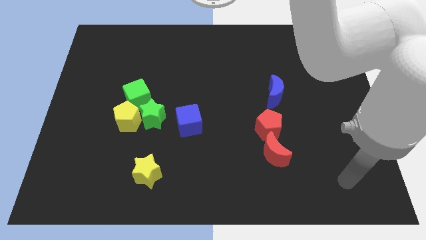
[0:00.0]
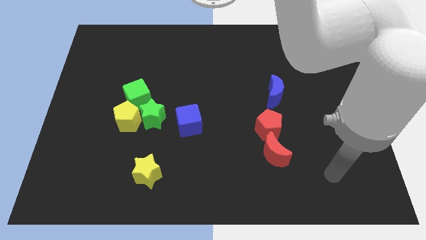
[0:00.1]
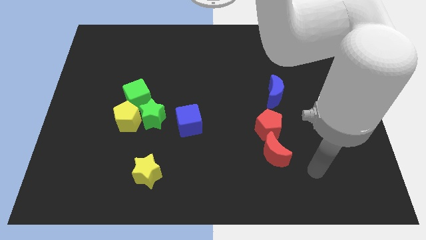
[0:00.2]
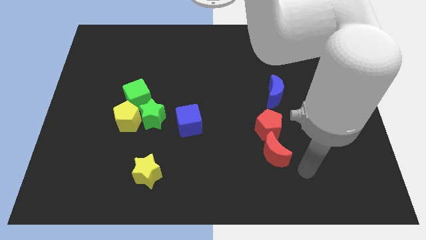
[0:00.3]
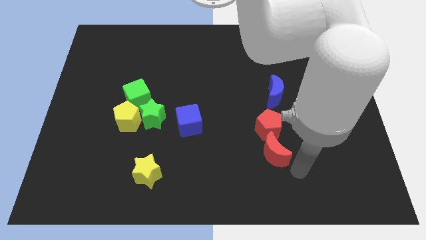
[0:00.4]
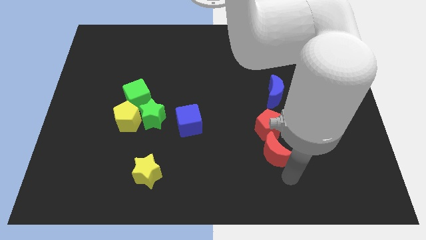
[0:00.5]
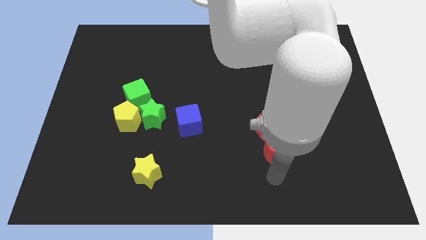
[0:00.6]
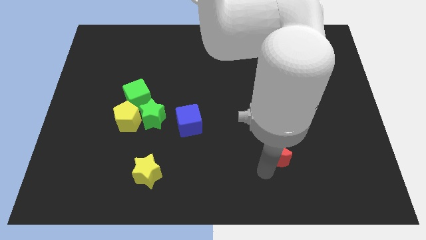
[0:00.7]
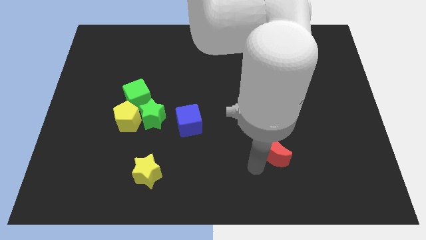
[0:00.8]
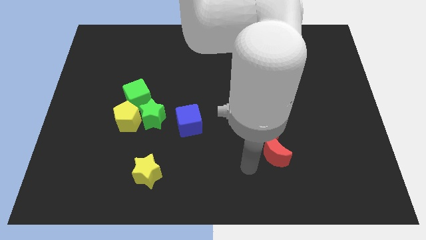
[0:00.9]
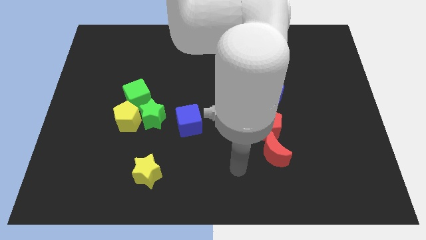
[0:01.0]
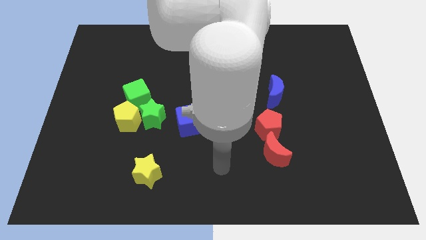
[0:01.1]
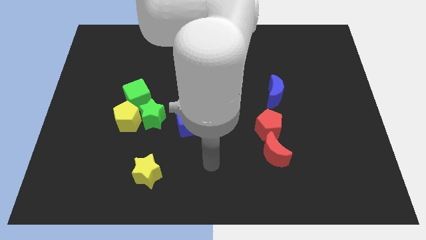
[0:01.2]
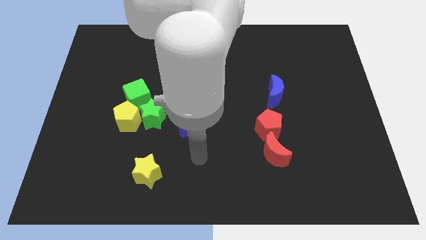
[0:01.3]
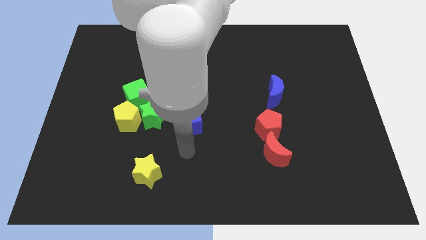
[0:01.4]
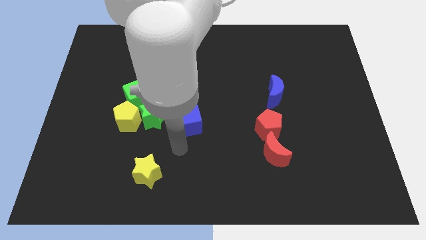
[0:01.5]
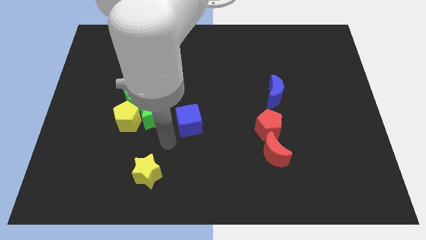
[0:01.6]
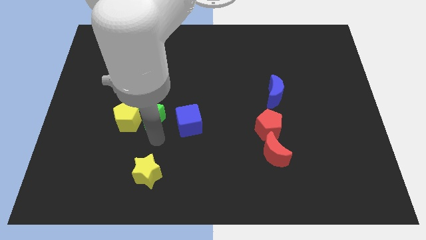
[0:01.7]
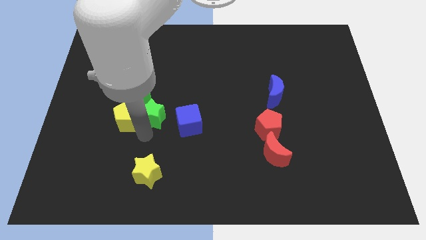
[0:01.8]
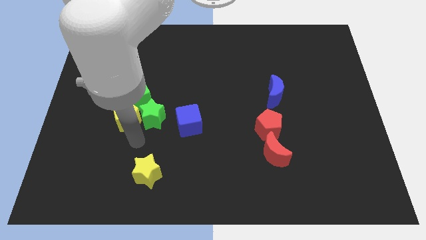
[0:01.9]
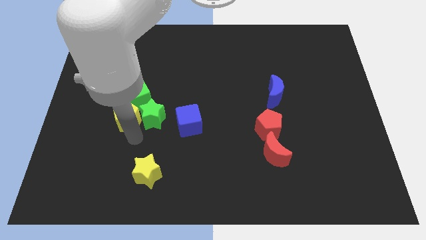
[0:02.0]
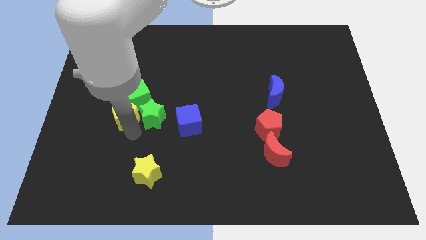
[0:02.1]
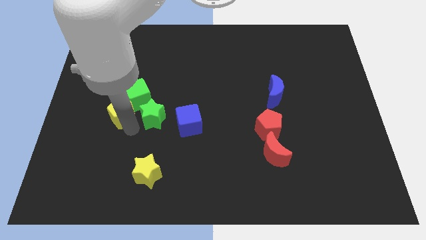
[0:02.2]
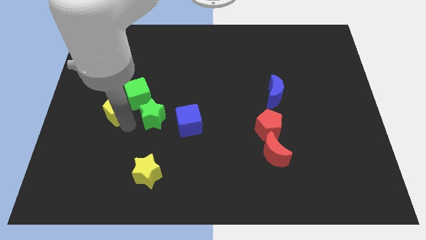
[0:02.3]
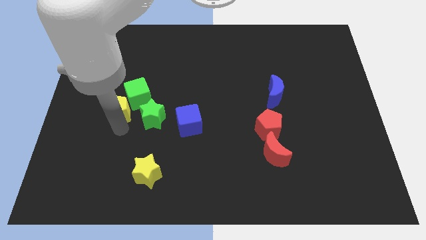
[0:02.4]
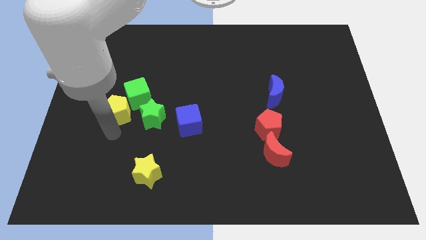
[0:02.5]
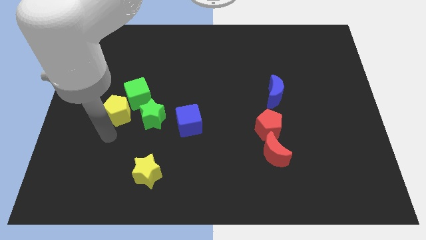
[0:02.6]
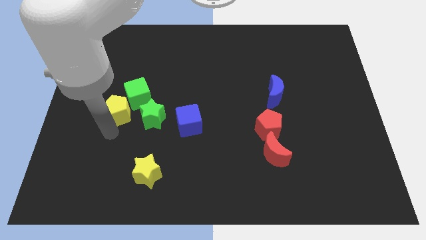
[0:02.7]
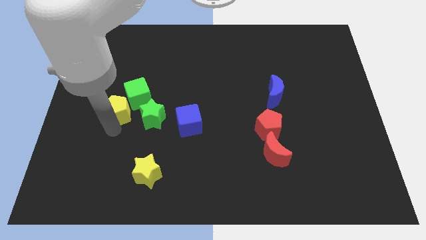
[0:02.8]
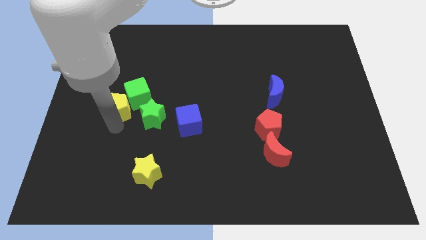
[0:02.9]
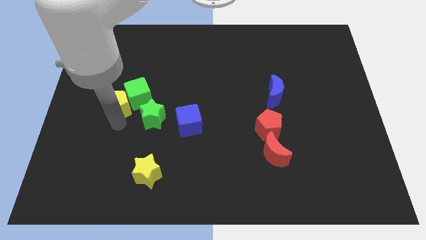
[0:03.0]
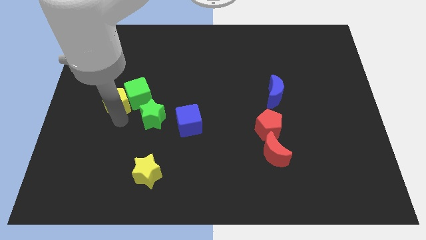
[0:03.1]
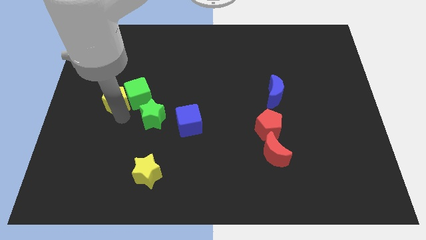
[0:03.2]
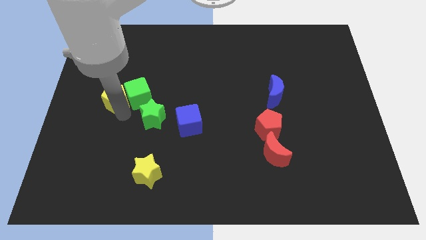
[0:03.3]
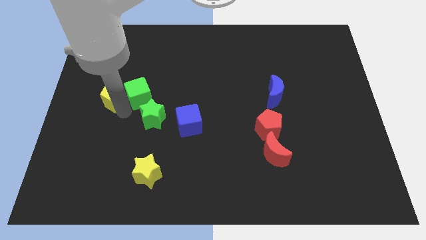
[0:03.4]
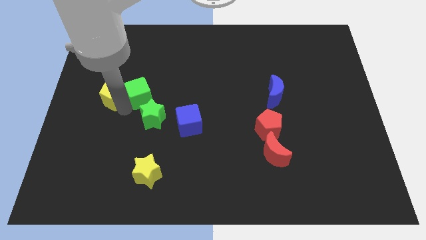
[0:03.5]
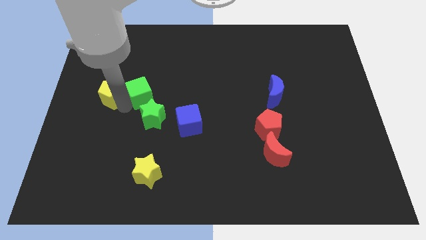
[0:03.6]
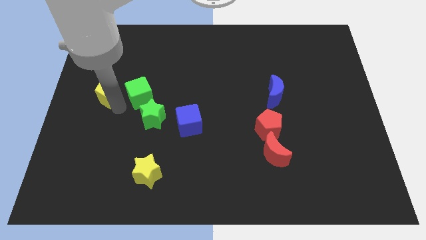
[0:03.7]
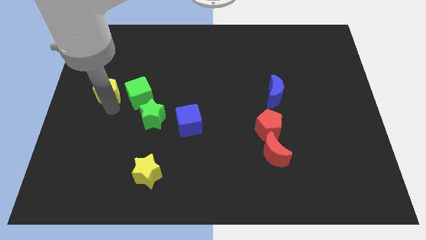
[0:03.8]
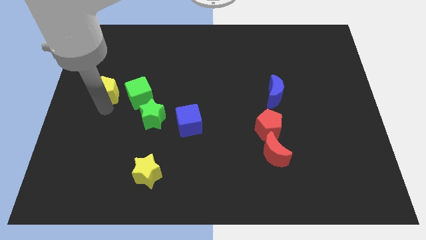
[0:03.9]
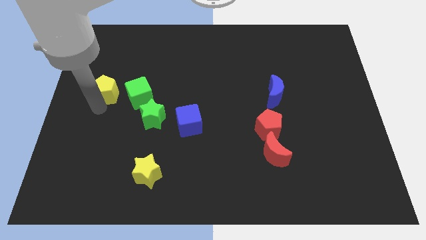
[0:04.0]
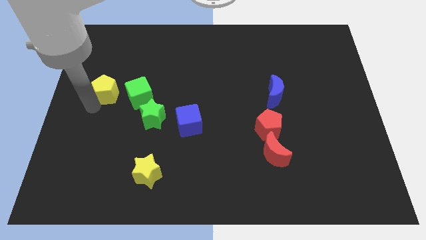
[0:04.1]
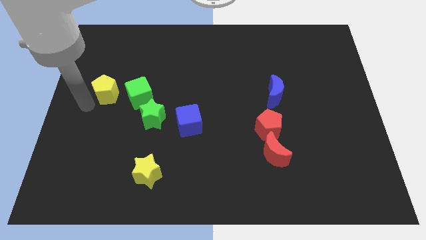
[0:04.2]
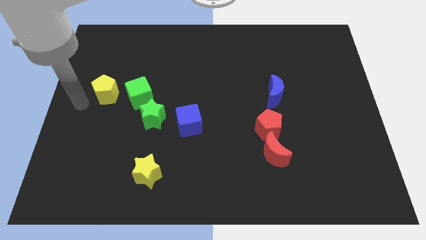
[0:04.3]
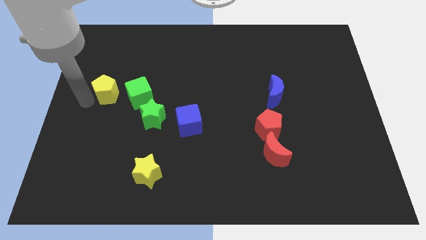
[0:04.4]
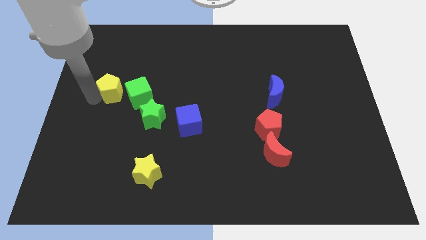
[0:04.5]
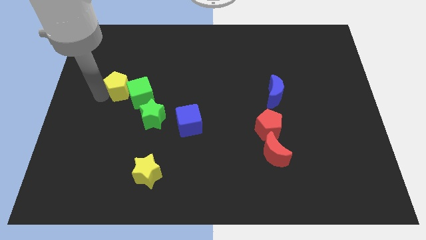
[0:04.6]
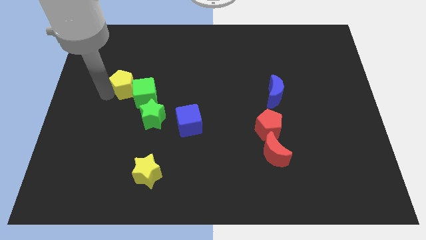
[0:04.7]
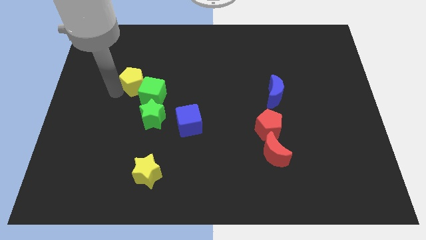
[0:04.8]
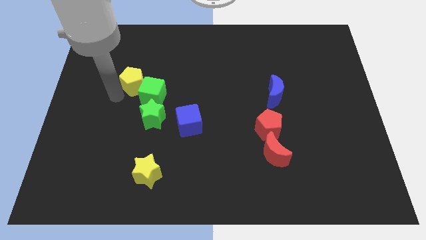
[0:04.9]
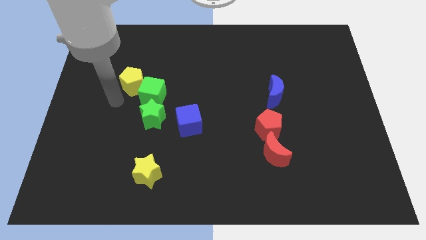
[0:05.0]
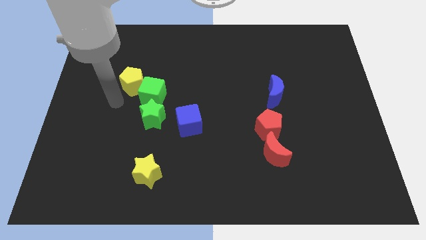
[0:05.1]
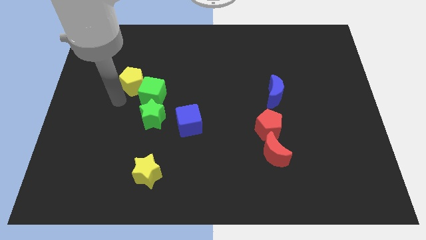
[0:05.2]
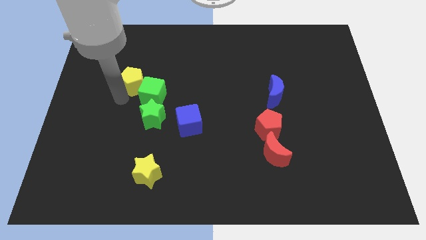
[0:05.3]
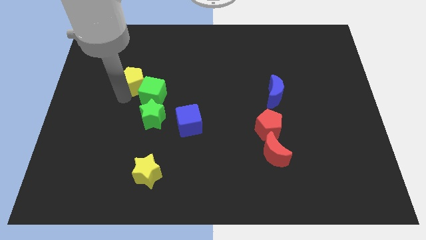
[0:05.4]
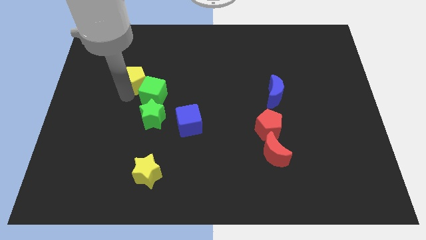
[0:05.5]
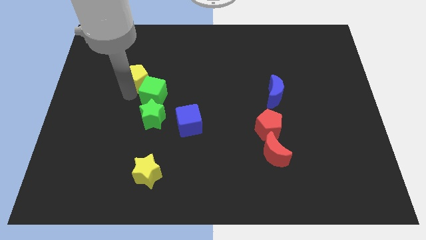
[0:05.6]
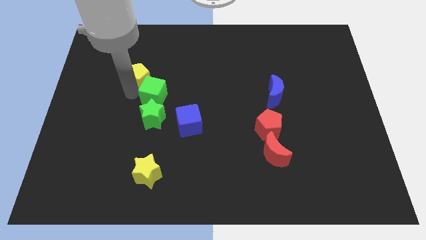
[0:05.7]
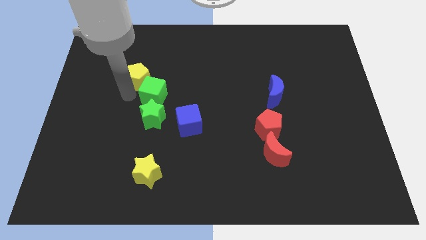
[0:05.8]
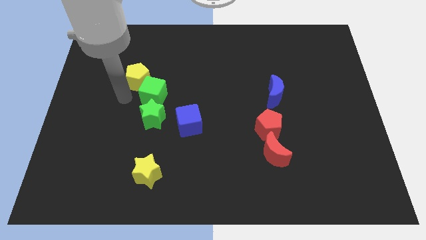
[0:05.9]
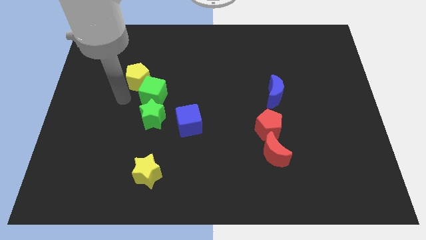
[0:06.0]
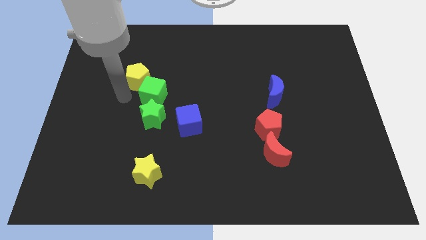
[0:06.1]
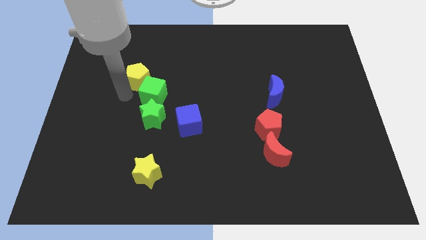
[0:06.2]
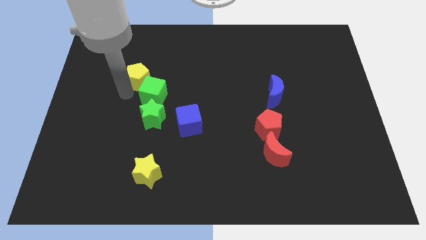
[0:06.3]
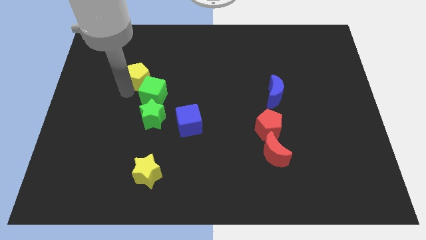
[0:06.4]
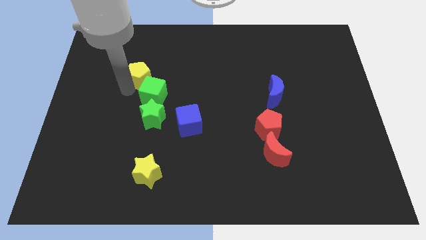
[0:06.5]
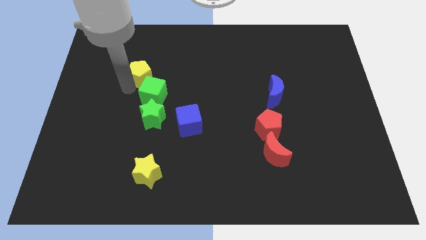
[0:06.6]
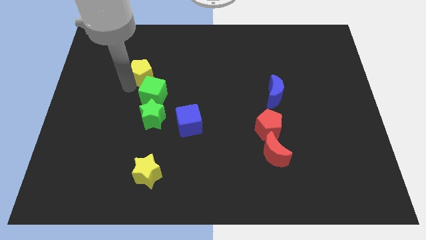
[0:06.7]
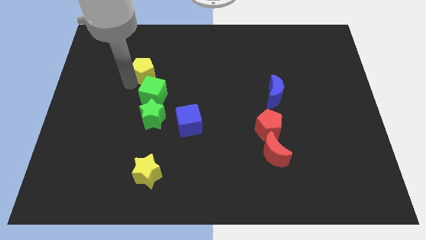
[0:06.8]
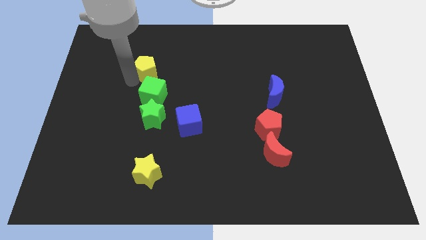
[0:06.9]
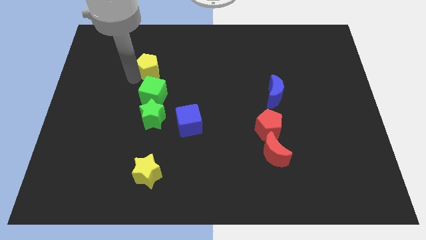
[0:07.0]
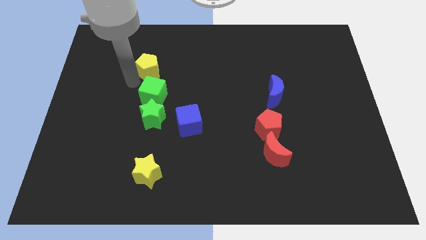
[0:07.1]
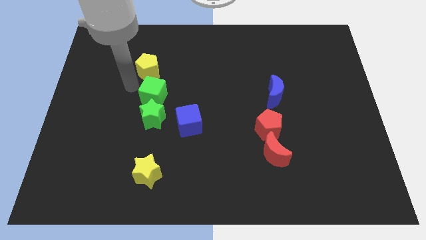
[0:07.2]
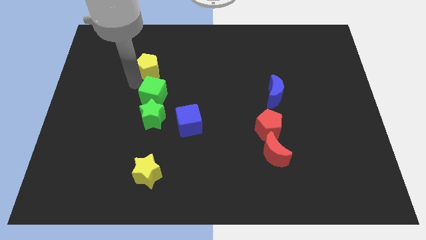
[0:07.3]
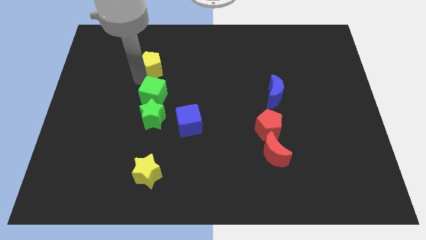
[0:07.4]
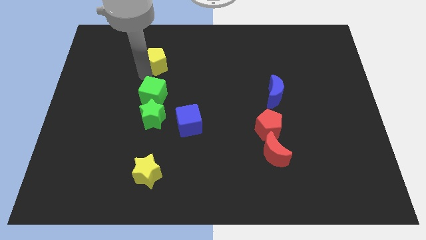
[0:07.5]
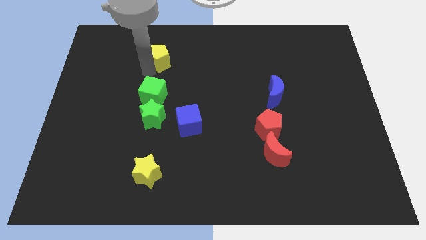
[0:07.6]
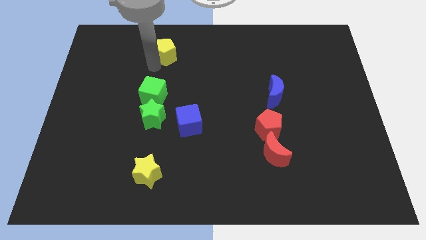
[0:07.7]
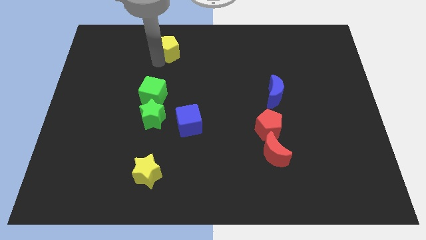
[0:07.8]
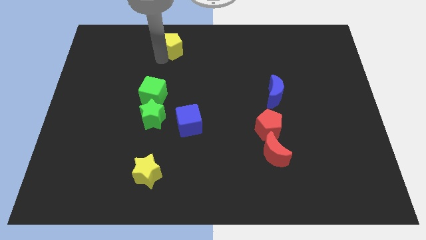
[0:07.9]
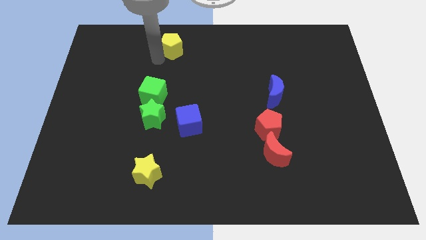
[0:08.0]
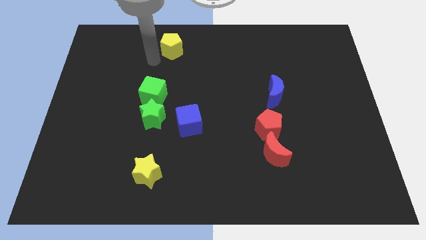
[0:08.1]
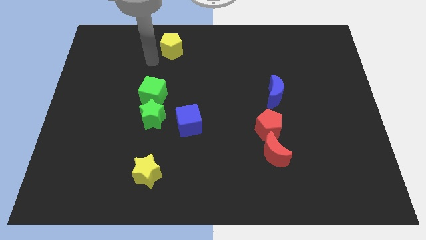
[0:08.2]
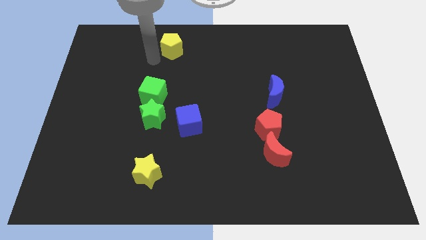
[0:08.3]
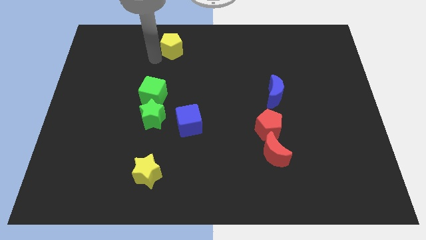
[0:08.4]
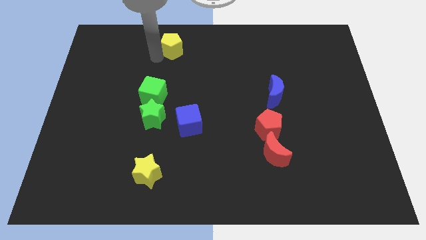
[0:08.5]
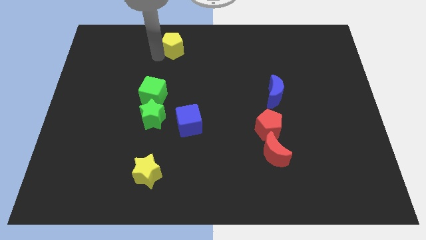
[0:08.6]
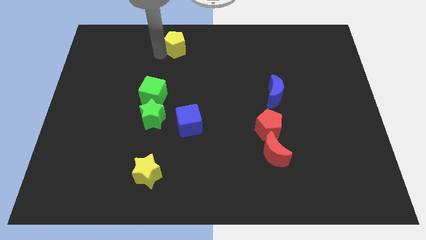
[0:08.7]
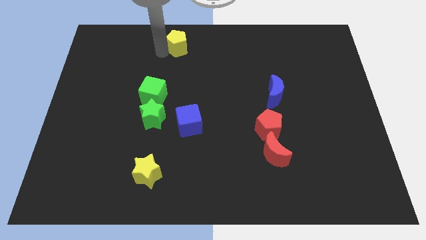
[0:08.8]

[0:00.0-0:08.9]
push the yellow pentagon to the towards your base
